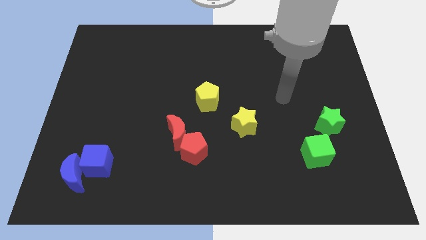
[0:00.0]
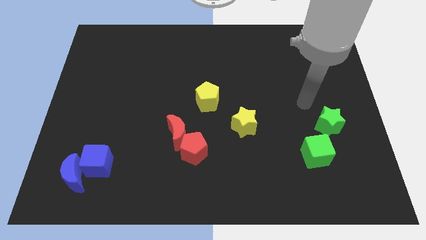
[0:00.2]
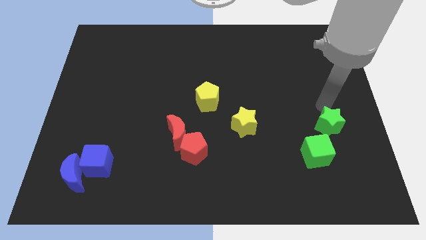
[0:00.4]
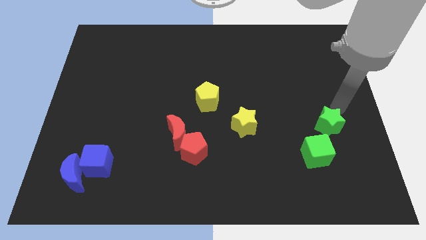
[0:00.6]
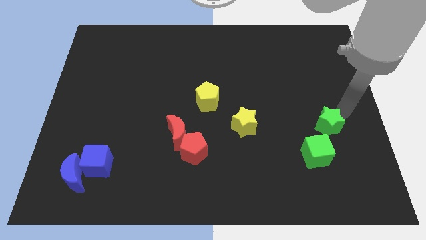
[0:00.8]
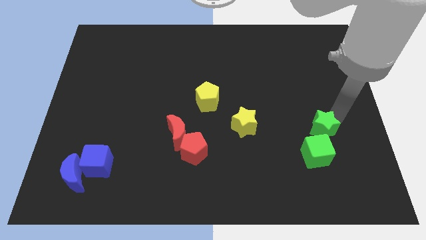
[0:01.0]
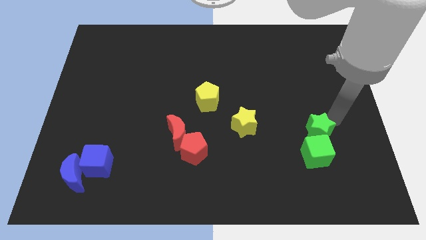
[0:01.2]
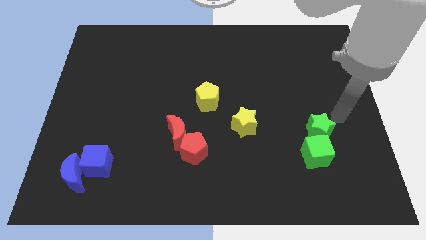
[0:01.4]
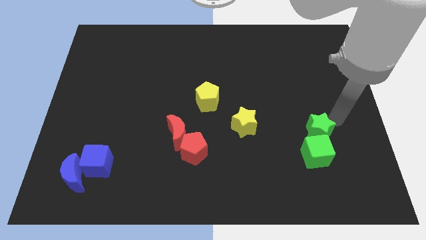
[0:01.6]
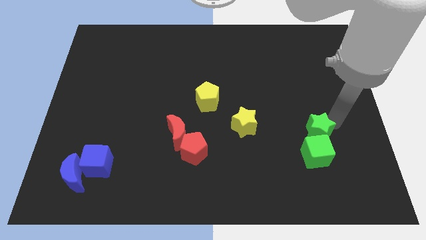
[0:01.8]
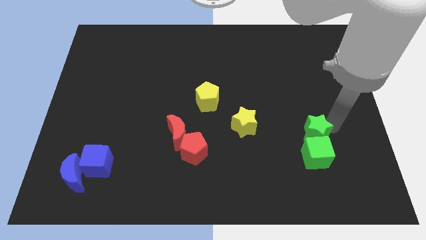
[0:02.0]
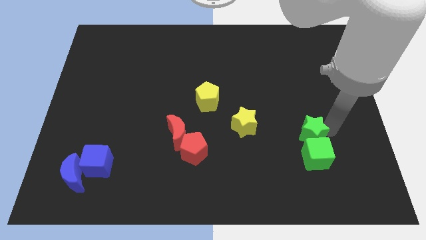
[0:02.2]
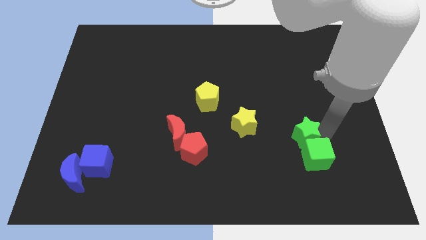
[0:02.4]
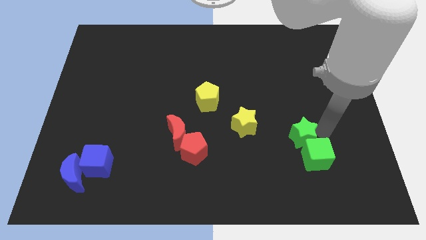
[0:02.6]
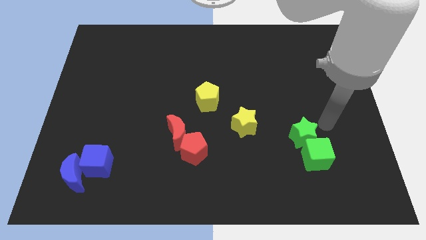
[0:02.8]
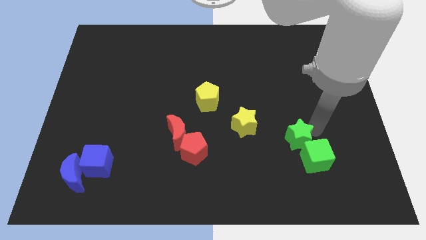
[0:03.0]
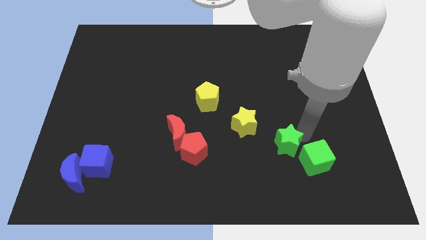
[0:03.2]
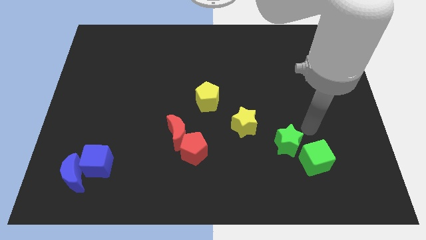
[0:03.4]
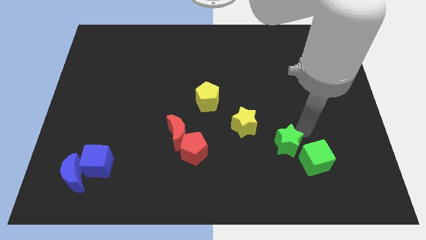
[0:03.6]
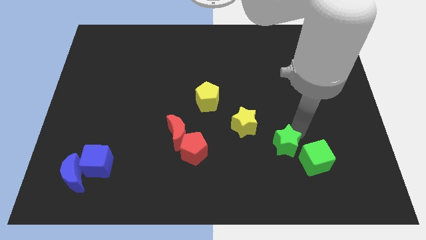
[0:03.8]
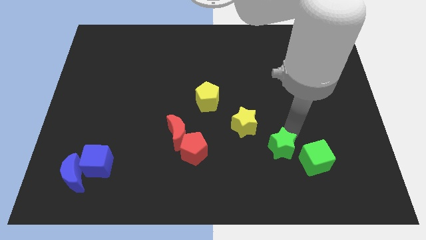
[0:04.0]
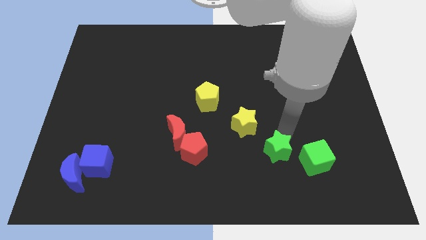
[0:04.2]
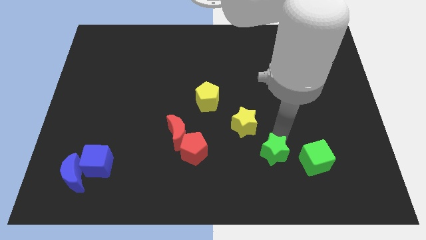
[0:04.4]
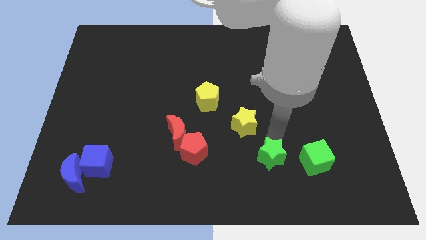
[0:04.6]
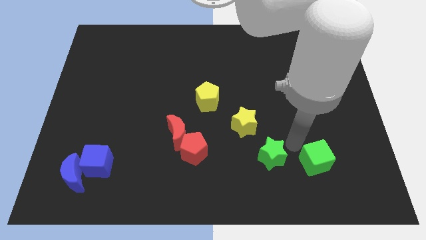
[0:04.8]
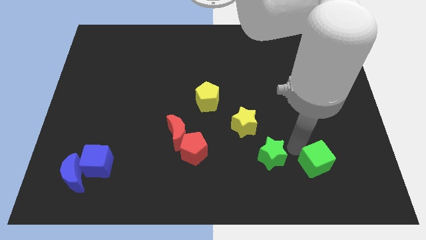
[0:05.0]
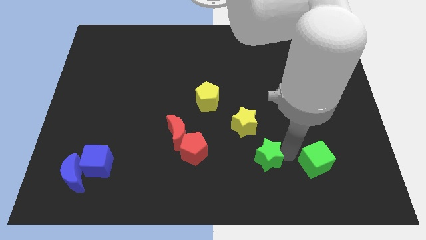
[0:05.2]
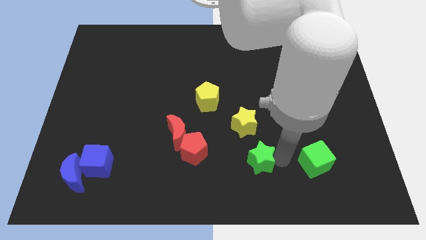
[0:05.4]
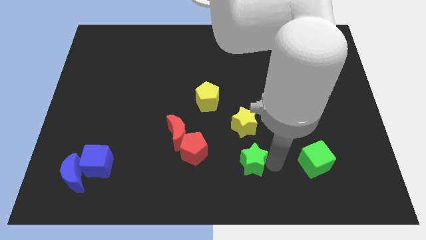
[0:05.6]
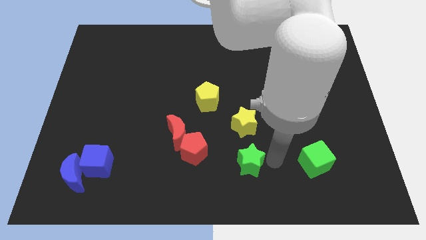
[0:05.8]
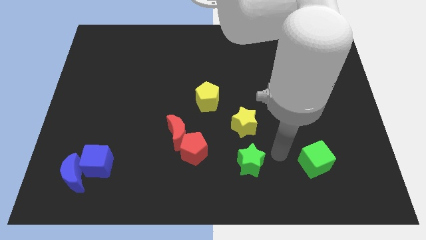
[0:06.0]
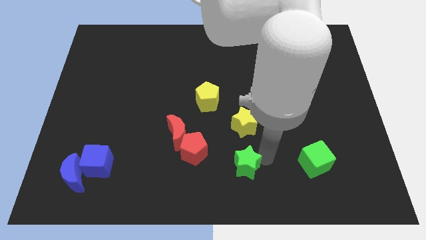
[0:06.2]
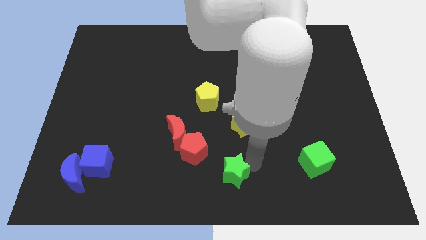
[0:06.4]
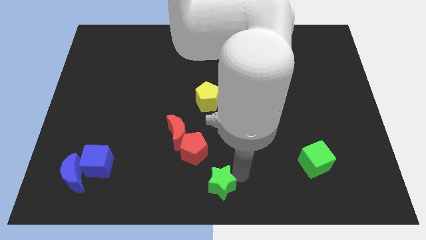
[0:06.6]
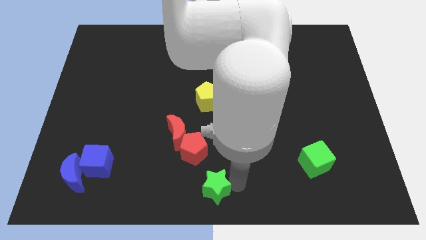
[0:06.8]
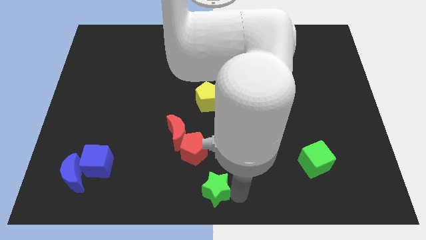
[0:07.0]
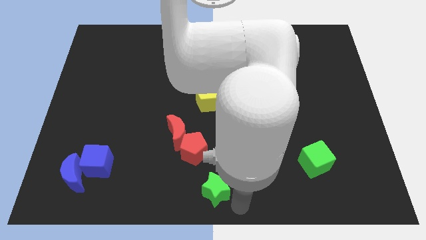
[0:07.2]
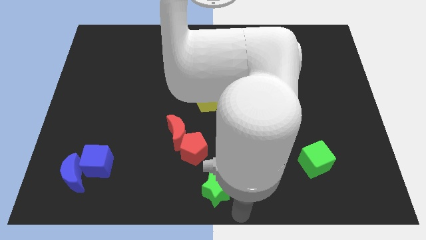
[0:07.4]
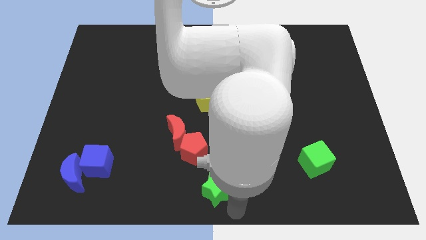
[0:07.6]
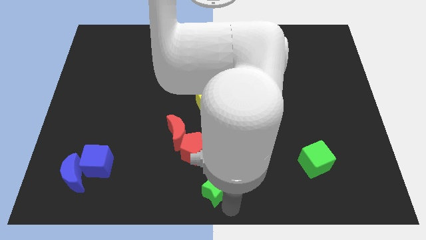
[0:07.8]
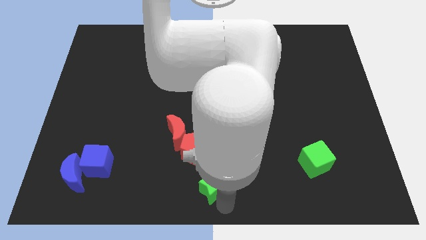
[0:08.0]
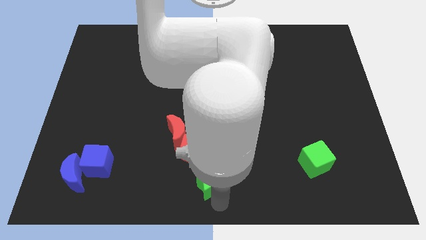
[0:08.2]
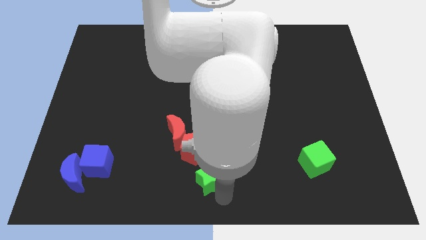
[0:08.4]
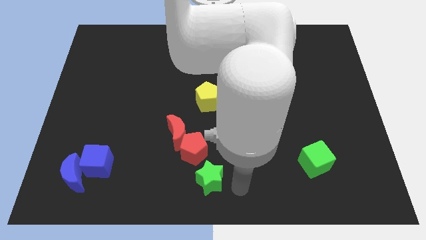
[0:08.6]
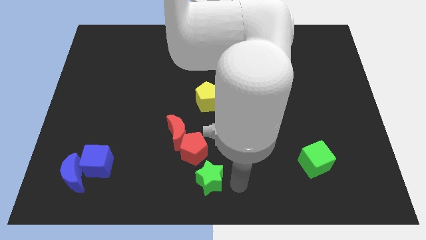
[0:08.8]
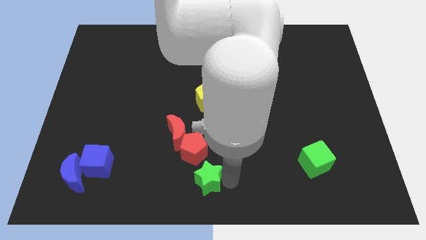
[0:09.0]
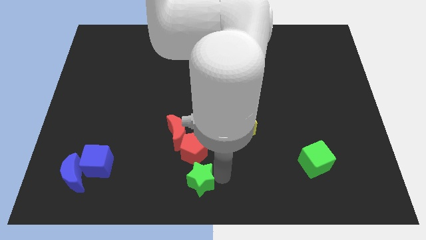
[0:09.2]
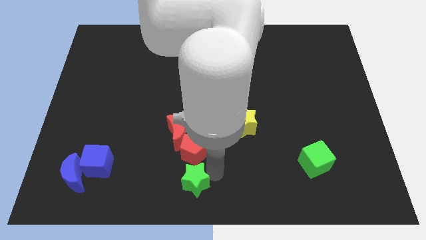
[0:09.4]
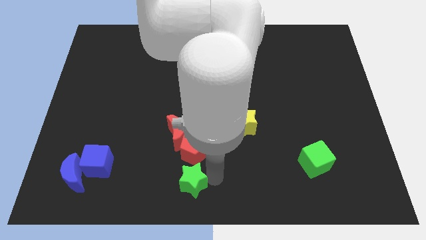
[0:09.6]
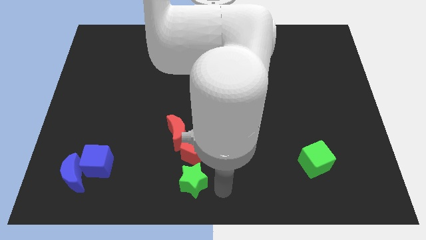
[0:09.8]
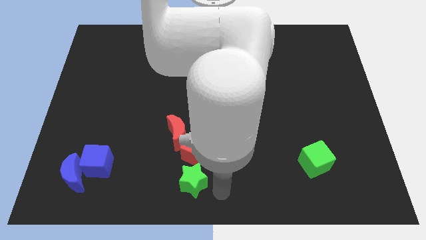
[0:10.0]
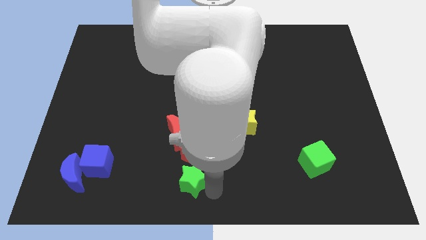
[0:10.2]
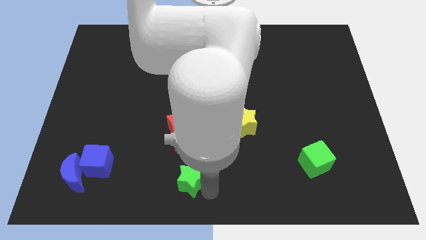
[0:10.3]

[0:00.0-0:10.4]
put the green star to the bottom left of the red pentagon

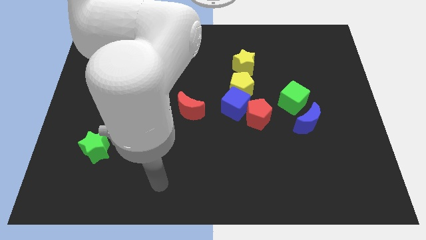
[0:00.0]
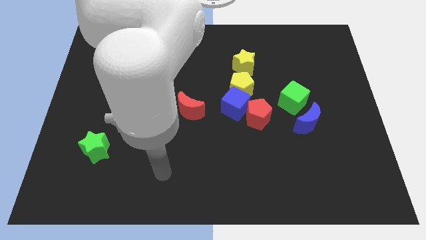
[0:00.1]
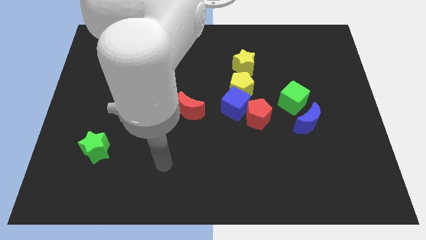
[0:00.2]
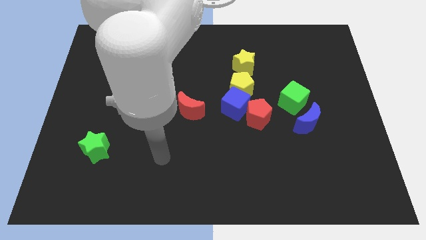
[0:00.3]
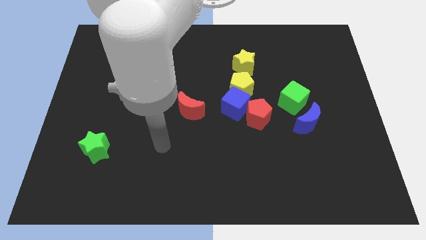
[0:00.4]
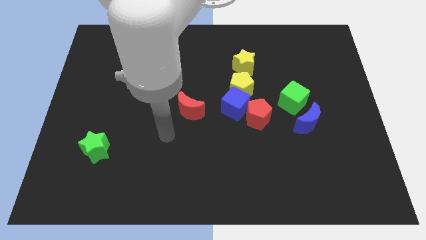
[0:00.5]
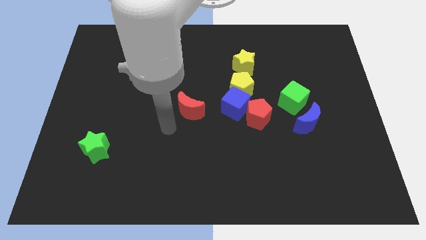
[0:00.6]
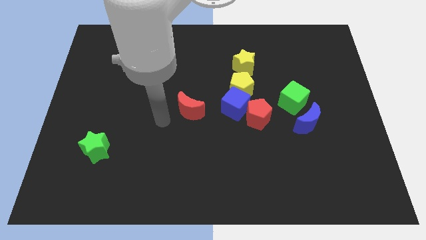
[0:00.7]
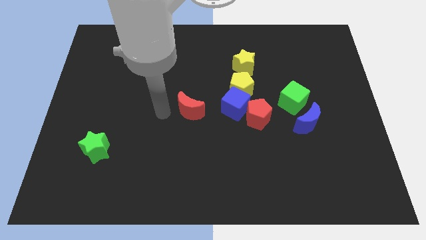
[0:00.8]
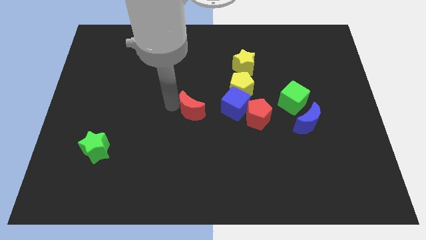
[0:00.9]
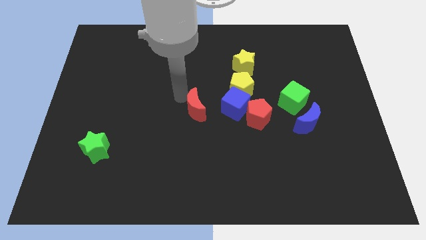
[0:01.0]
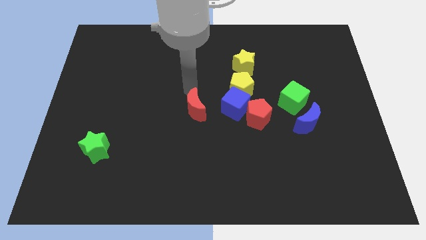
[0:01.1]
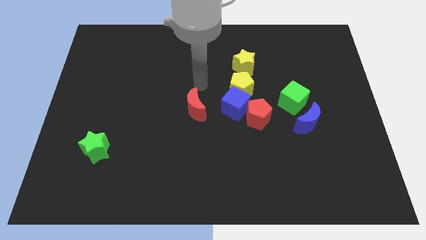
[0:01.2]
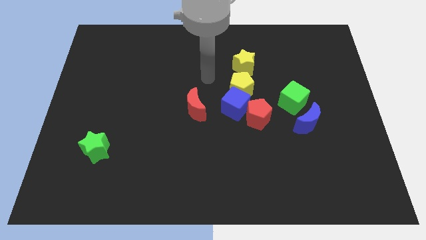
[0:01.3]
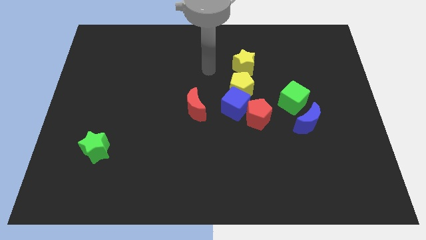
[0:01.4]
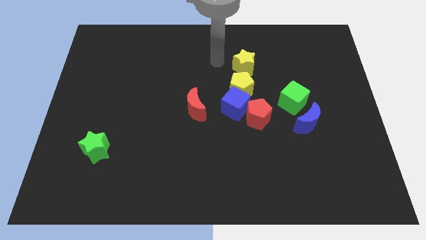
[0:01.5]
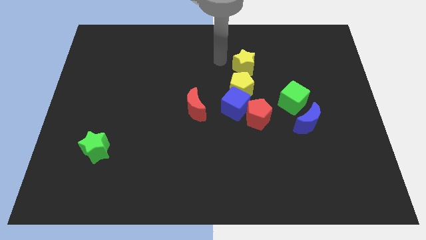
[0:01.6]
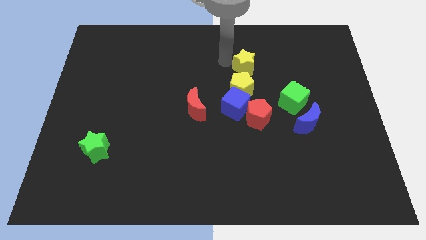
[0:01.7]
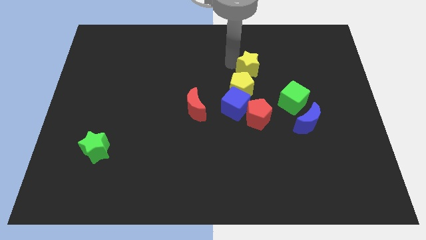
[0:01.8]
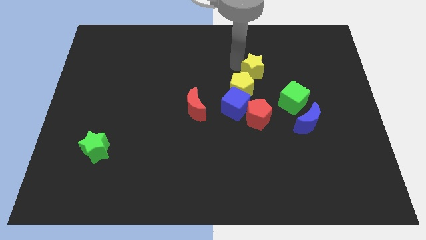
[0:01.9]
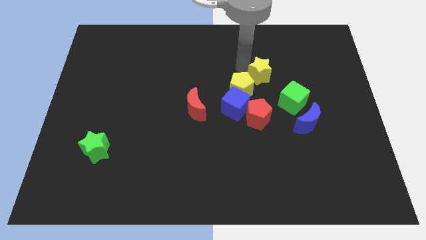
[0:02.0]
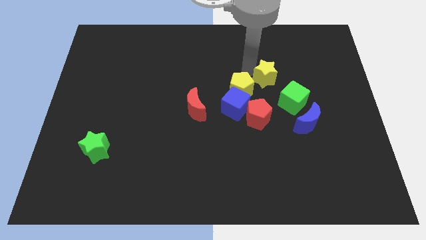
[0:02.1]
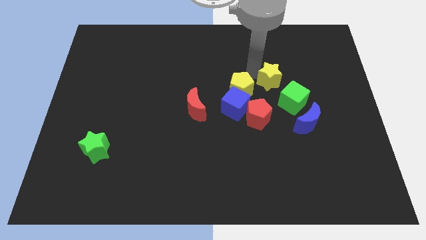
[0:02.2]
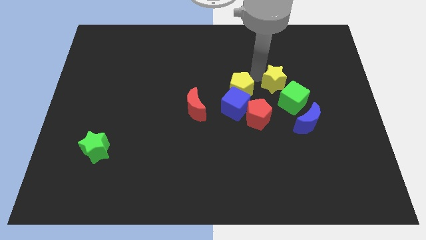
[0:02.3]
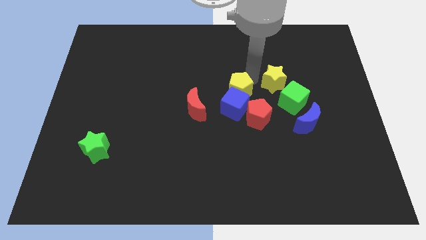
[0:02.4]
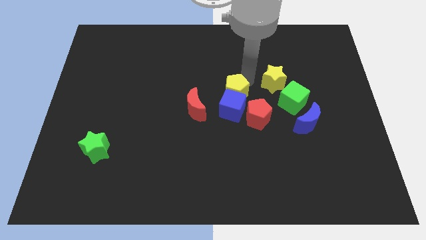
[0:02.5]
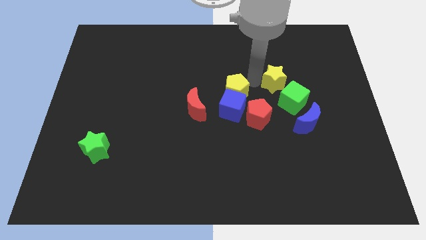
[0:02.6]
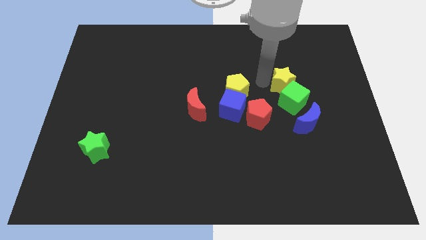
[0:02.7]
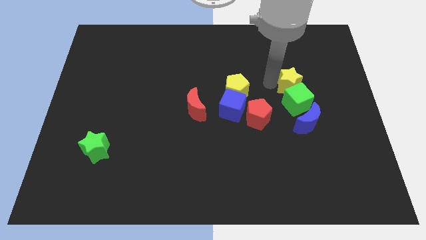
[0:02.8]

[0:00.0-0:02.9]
push the yellow star to the top right side of the green cube

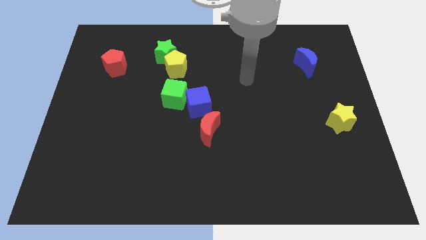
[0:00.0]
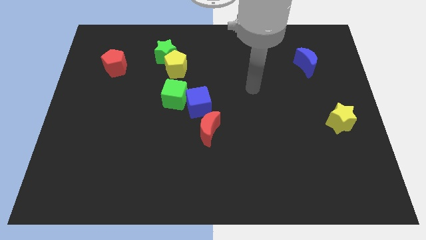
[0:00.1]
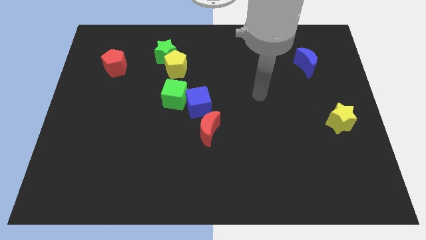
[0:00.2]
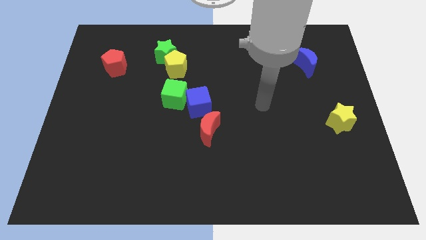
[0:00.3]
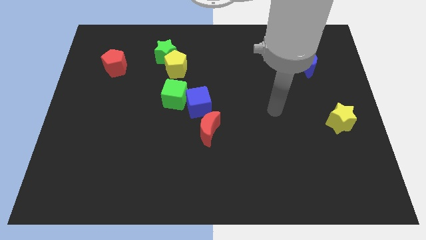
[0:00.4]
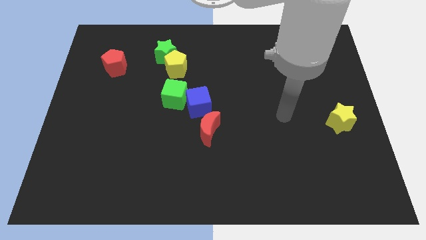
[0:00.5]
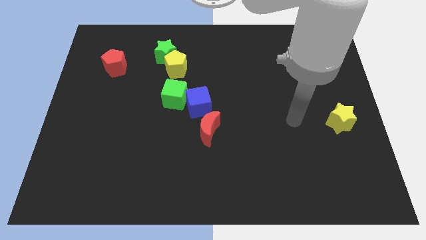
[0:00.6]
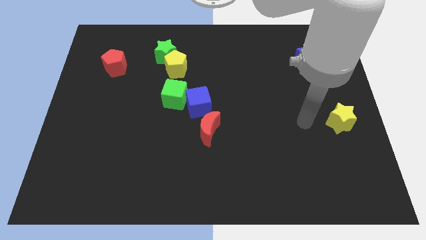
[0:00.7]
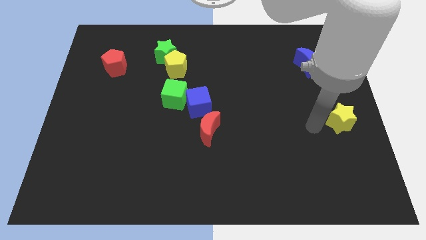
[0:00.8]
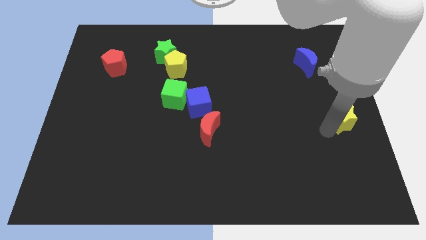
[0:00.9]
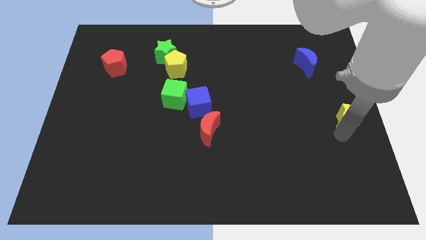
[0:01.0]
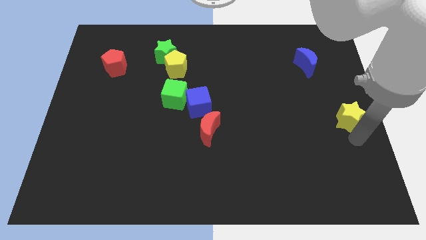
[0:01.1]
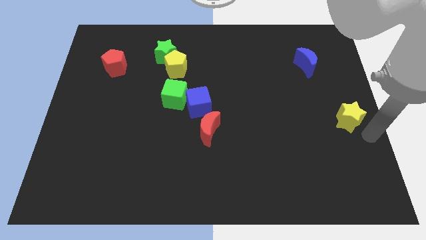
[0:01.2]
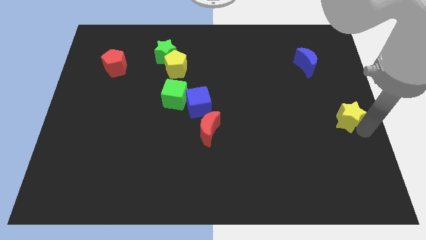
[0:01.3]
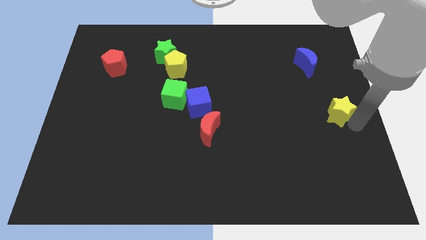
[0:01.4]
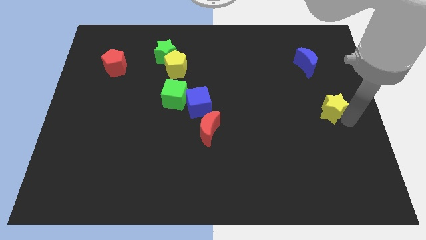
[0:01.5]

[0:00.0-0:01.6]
put the yellow star to the bottom of the blue moon
